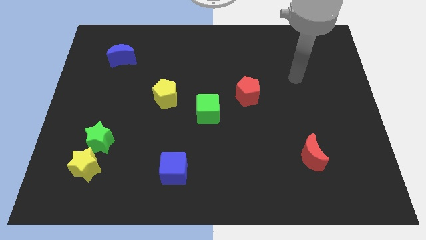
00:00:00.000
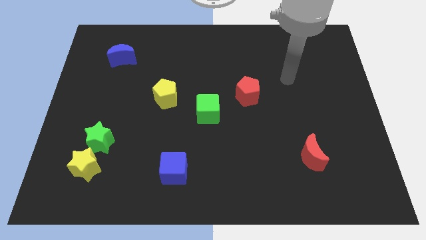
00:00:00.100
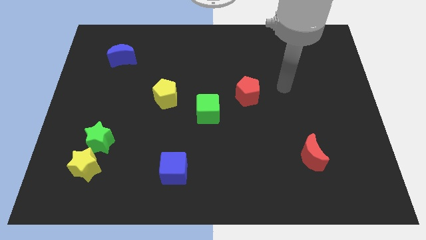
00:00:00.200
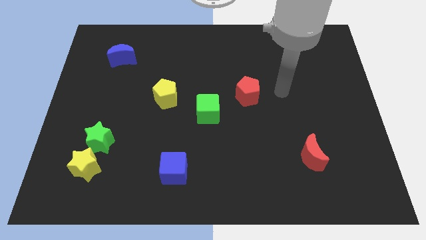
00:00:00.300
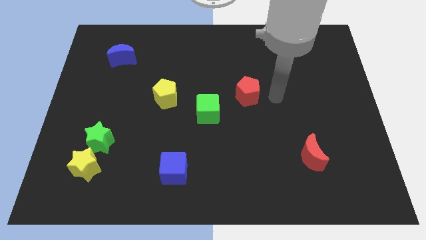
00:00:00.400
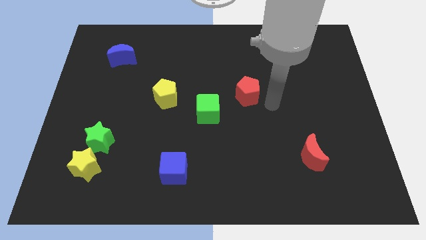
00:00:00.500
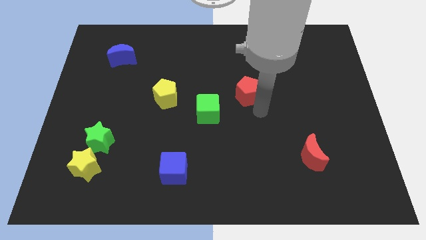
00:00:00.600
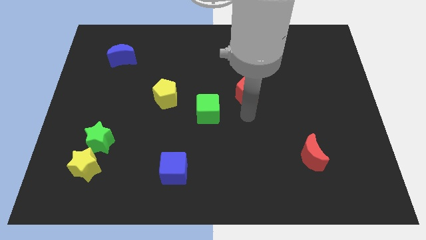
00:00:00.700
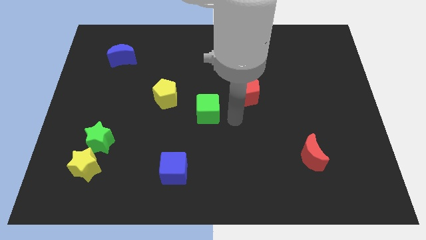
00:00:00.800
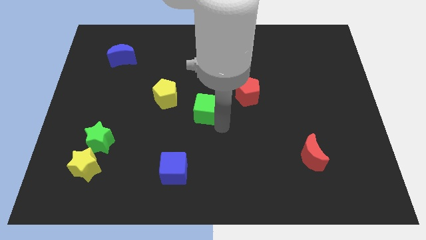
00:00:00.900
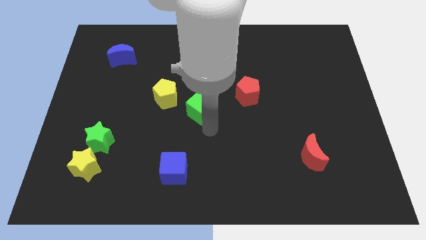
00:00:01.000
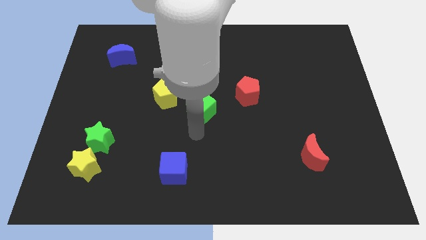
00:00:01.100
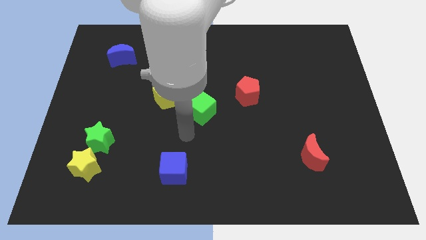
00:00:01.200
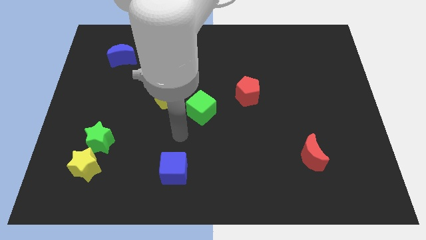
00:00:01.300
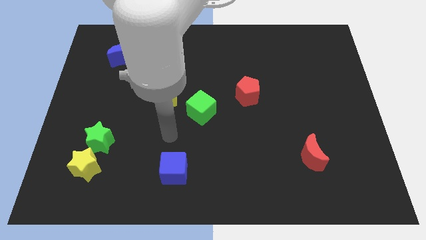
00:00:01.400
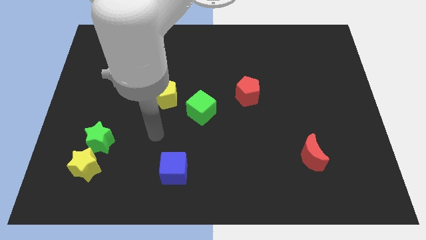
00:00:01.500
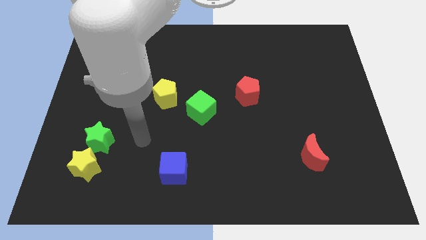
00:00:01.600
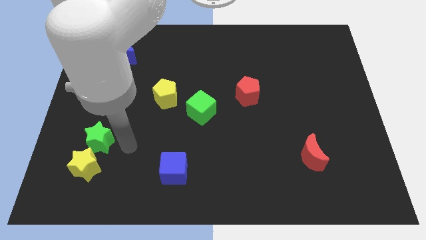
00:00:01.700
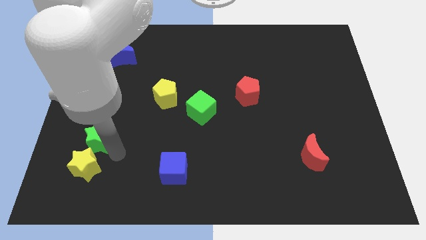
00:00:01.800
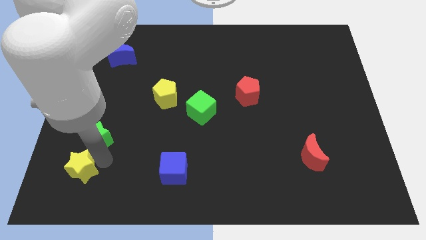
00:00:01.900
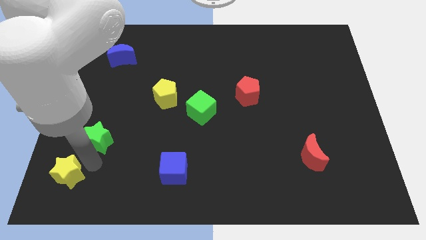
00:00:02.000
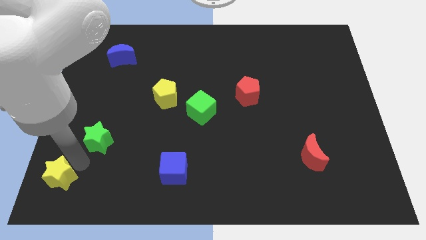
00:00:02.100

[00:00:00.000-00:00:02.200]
move the green star away from the yellow star

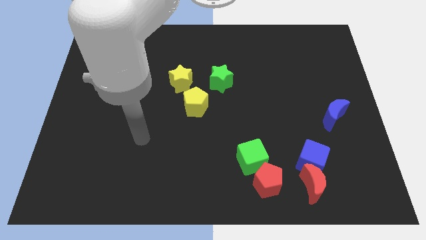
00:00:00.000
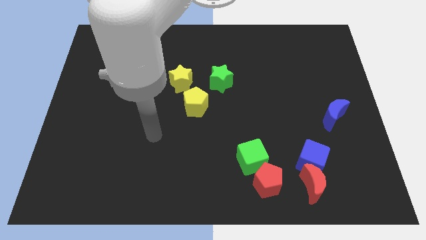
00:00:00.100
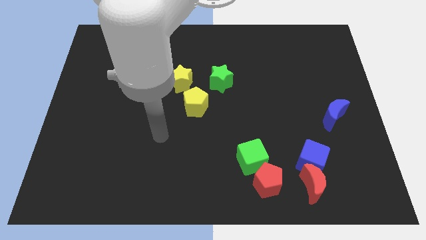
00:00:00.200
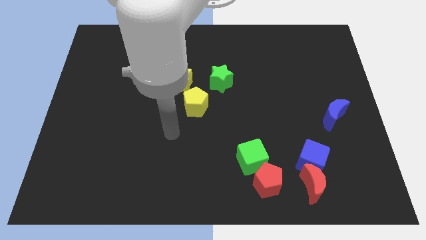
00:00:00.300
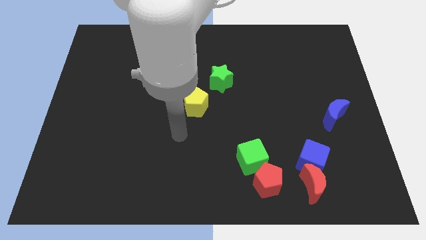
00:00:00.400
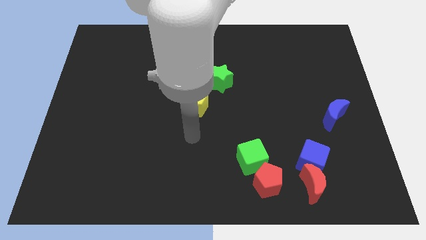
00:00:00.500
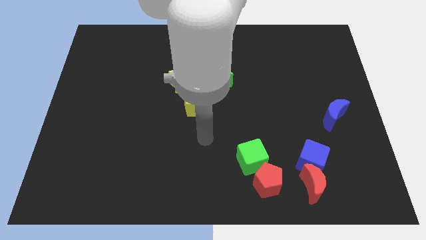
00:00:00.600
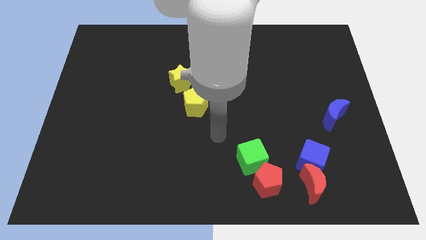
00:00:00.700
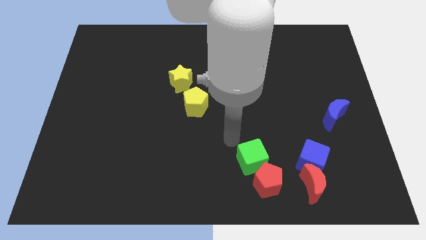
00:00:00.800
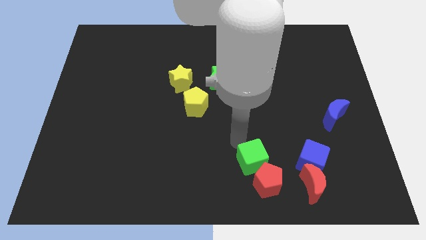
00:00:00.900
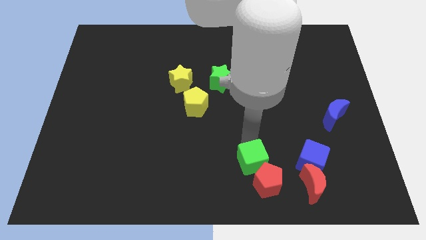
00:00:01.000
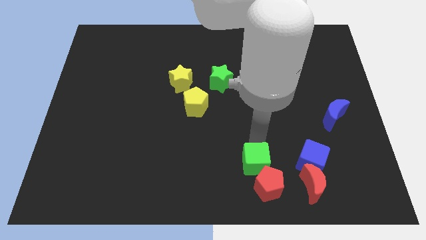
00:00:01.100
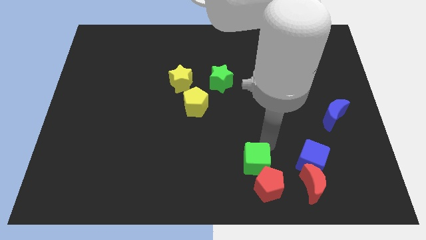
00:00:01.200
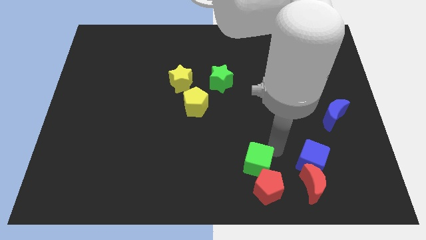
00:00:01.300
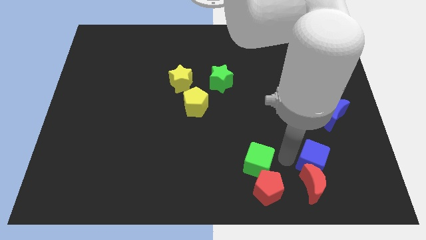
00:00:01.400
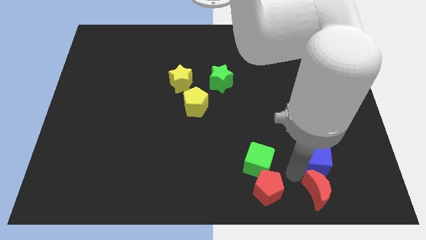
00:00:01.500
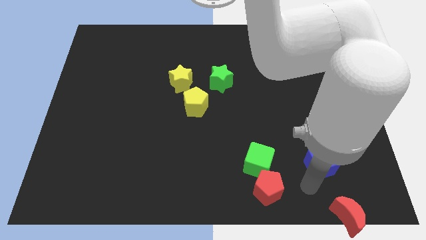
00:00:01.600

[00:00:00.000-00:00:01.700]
pull the blue cube apart from the red moon

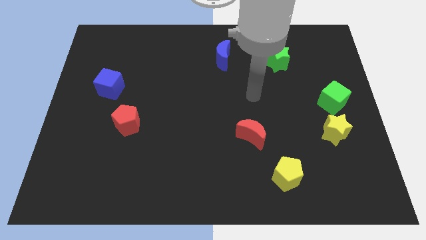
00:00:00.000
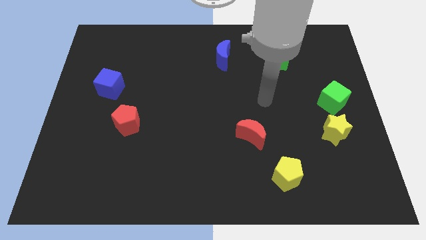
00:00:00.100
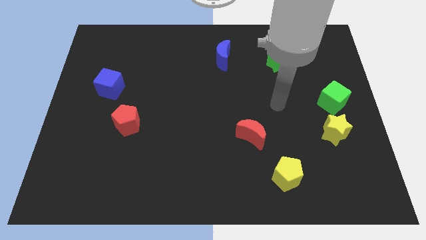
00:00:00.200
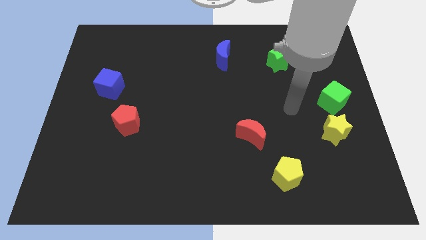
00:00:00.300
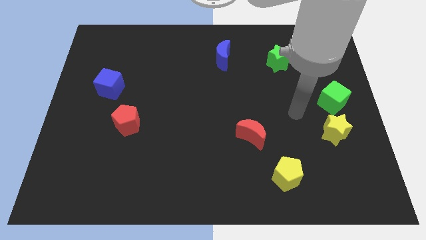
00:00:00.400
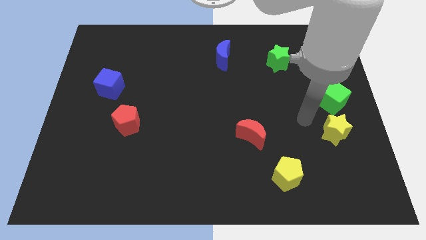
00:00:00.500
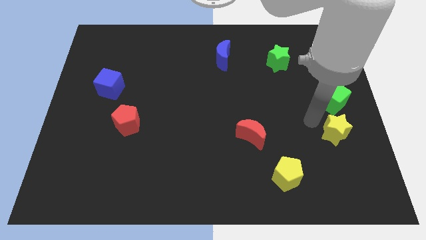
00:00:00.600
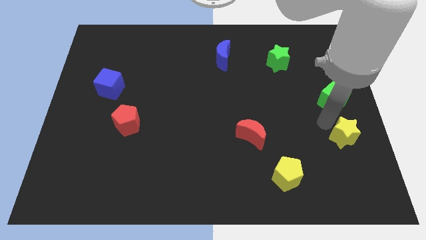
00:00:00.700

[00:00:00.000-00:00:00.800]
separate the green cube from the yellow star

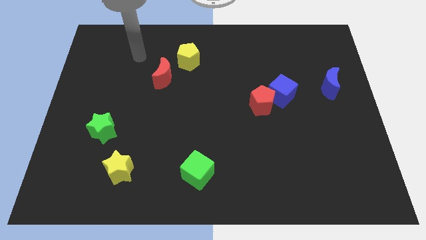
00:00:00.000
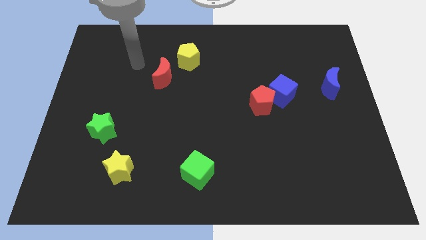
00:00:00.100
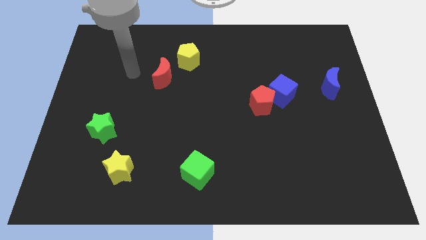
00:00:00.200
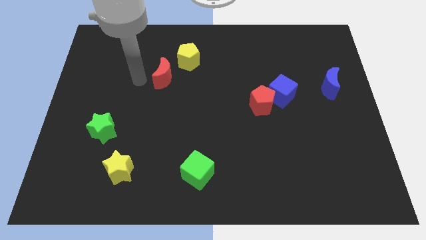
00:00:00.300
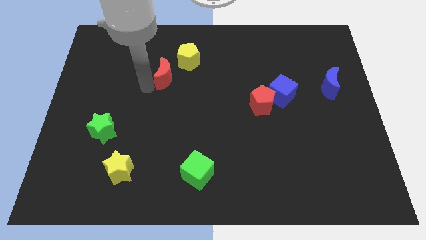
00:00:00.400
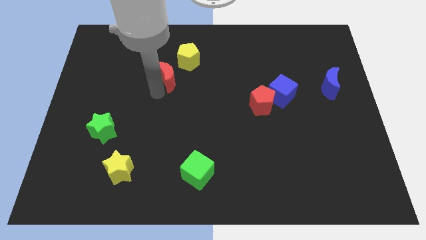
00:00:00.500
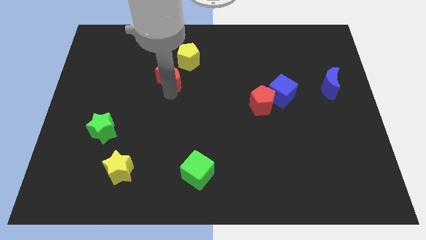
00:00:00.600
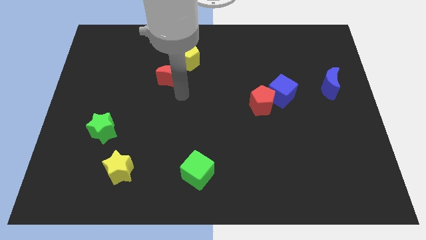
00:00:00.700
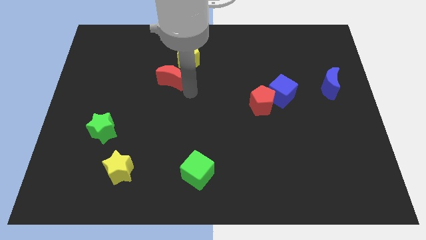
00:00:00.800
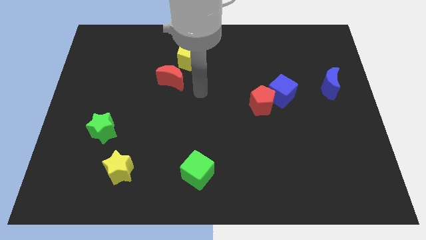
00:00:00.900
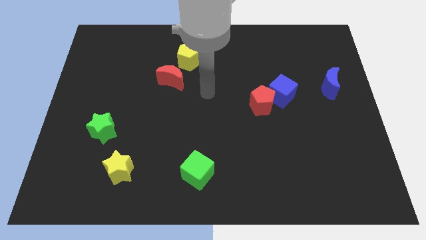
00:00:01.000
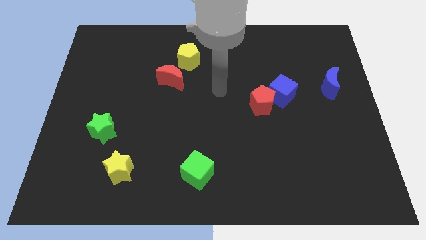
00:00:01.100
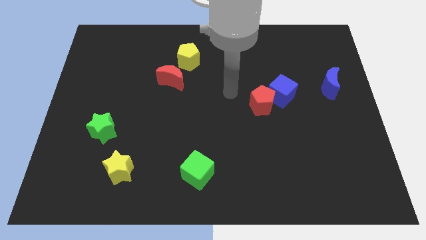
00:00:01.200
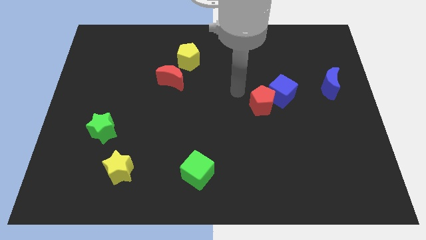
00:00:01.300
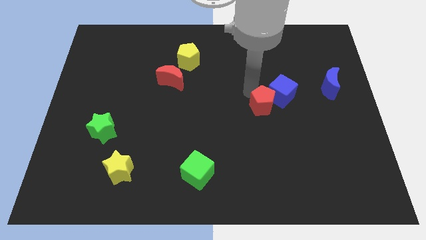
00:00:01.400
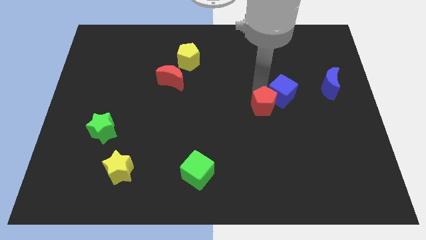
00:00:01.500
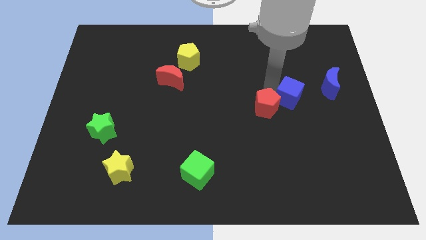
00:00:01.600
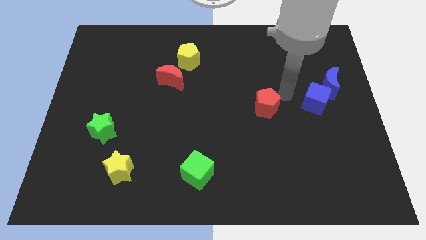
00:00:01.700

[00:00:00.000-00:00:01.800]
pull the red pentagon apart from the blue cube

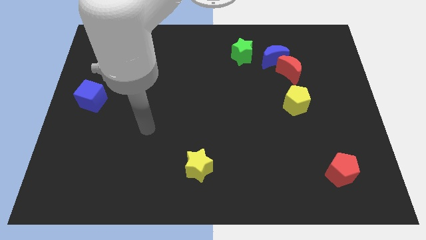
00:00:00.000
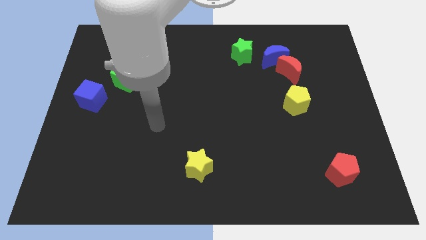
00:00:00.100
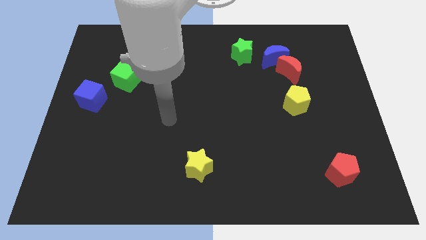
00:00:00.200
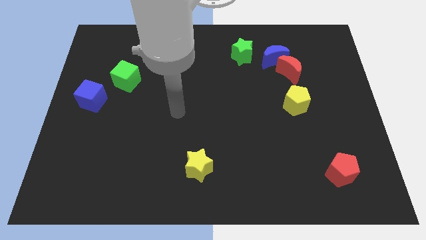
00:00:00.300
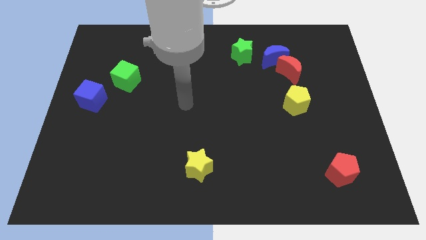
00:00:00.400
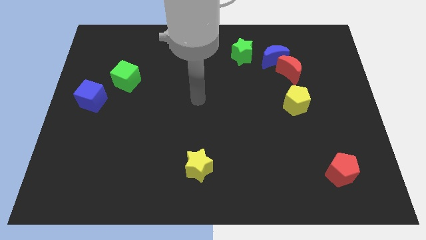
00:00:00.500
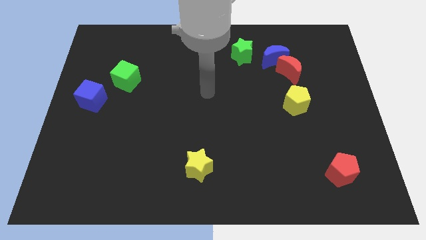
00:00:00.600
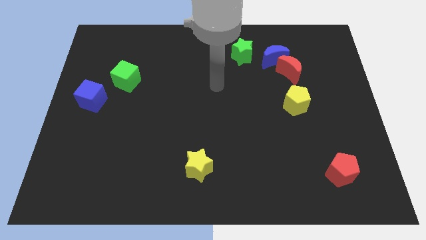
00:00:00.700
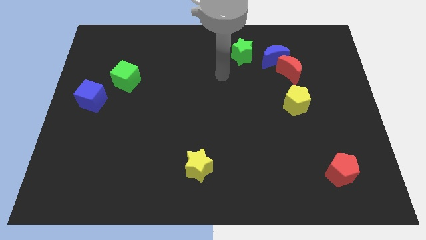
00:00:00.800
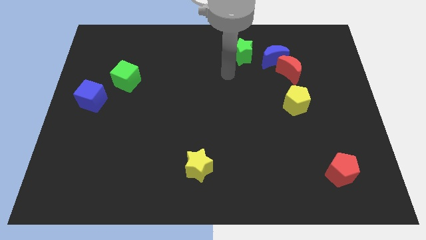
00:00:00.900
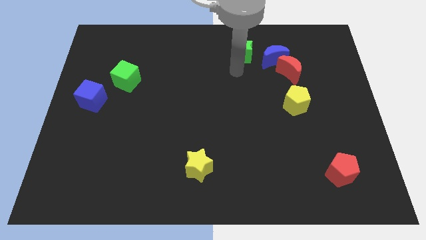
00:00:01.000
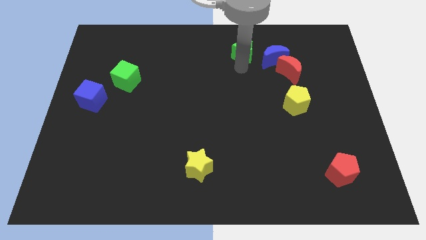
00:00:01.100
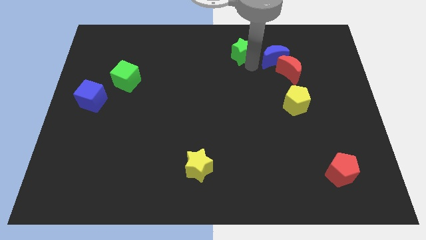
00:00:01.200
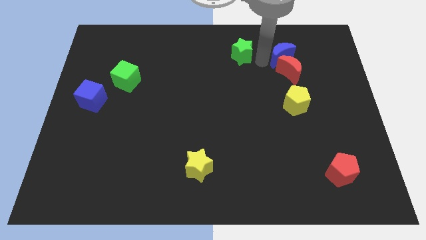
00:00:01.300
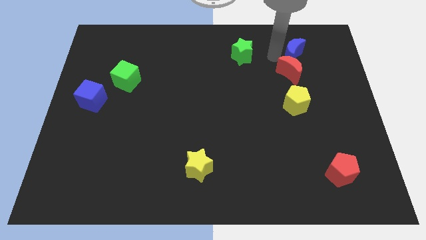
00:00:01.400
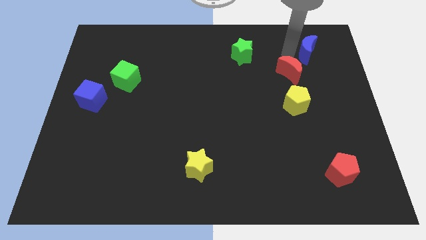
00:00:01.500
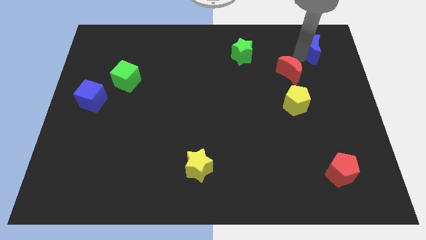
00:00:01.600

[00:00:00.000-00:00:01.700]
move the red moon away from the blue moon

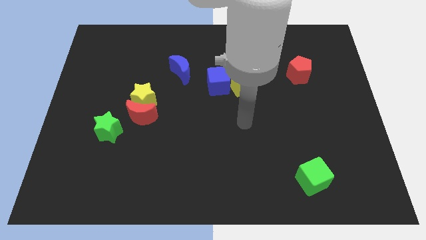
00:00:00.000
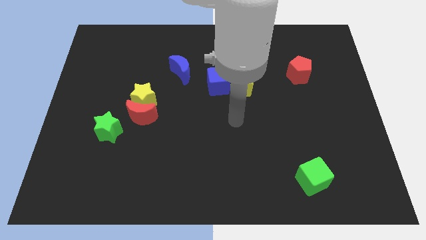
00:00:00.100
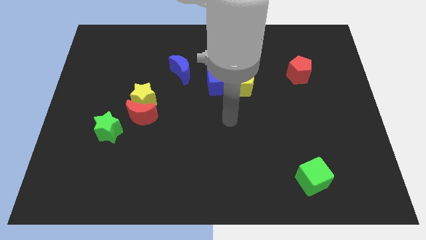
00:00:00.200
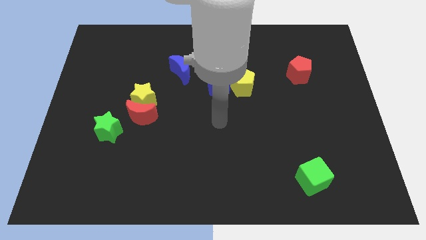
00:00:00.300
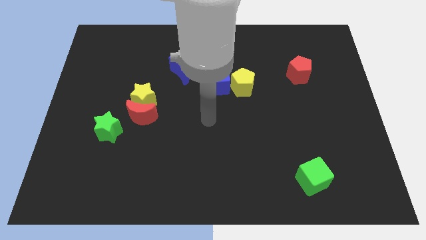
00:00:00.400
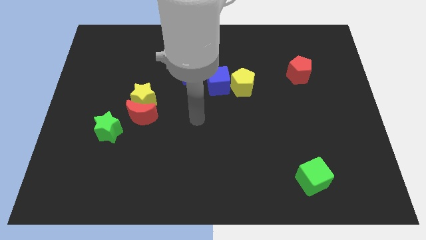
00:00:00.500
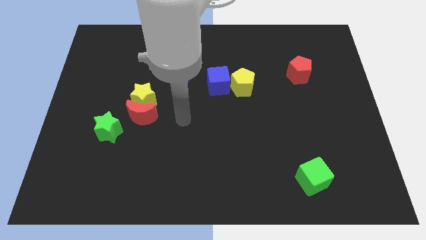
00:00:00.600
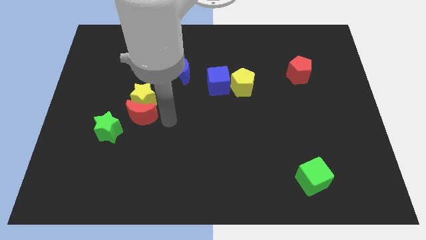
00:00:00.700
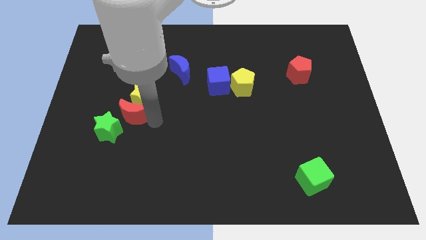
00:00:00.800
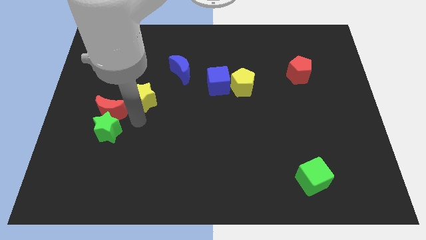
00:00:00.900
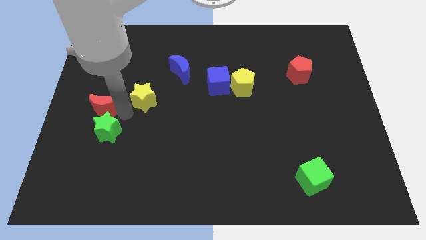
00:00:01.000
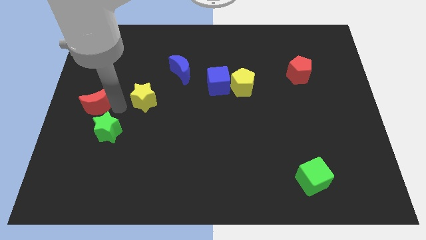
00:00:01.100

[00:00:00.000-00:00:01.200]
move the yellow star away from the red moon
